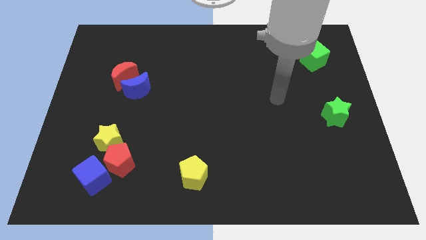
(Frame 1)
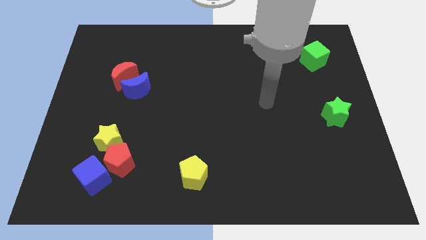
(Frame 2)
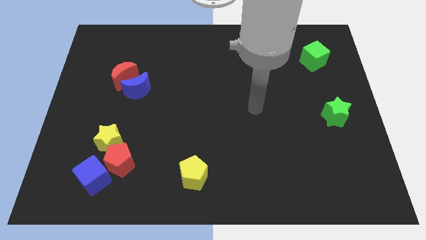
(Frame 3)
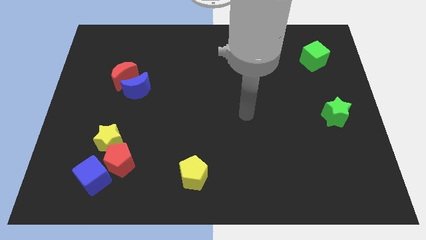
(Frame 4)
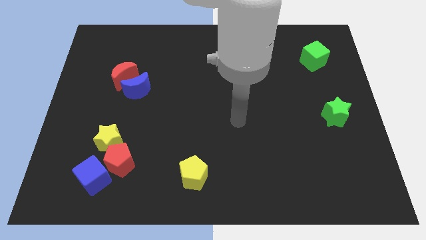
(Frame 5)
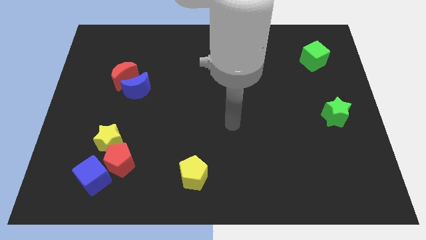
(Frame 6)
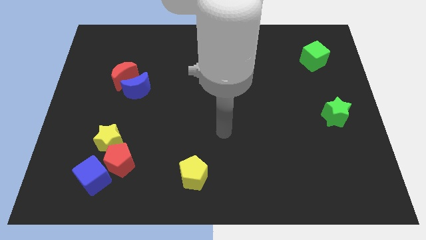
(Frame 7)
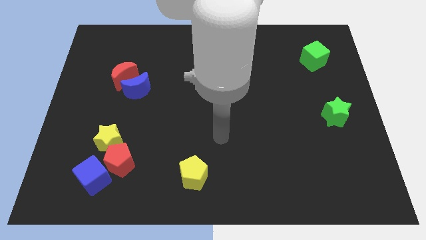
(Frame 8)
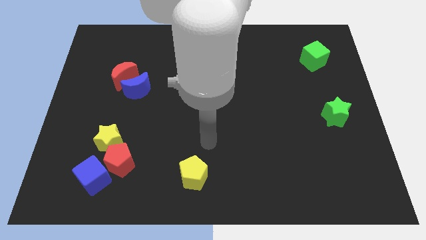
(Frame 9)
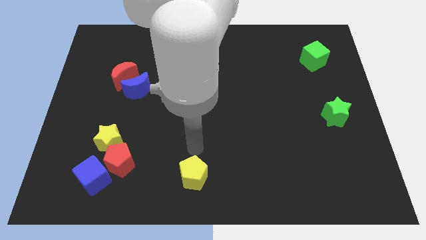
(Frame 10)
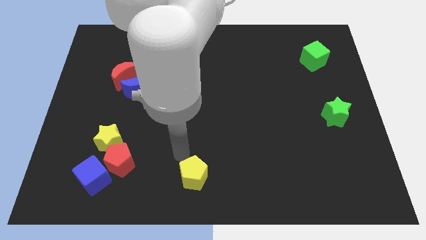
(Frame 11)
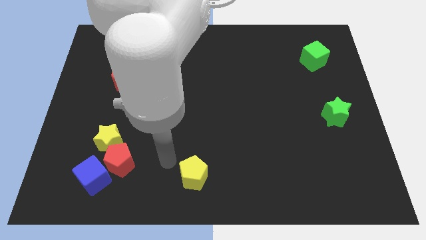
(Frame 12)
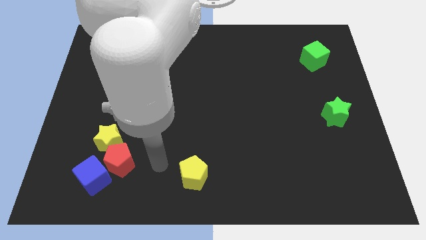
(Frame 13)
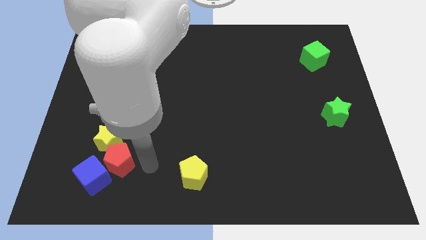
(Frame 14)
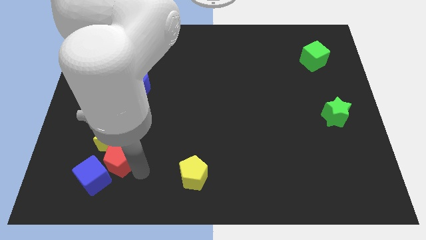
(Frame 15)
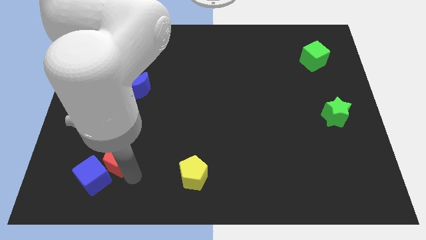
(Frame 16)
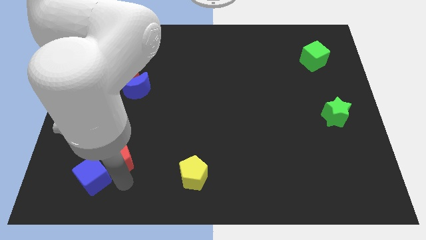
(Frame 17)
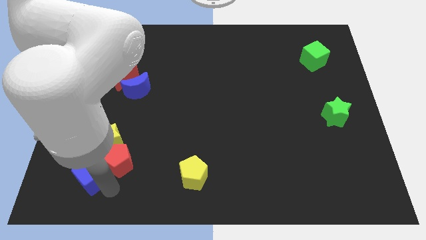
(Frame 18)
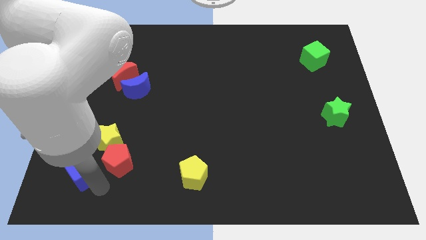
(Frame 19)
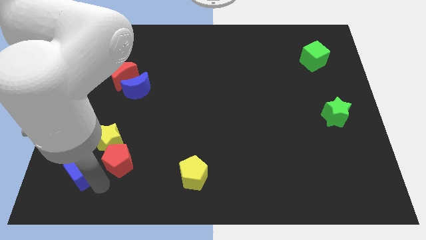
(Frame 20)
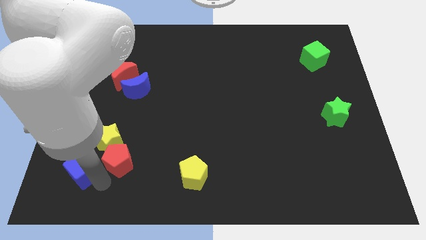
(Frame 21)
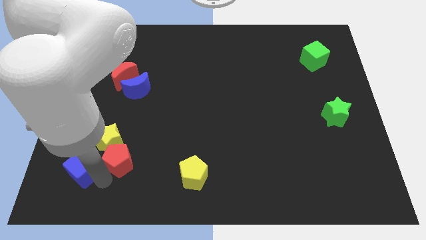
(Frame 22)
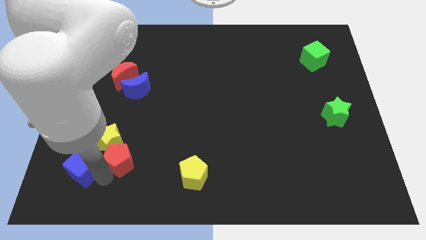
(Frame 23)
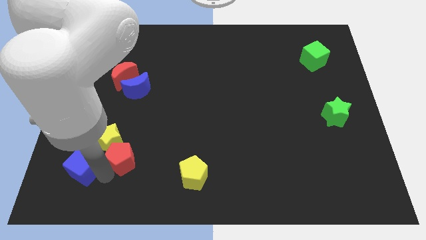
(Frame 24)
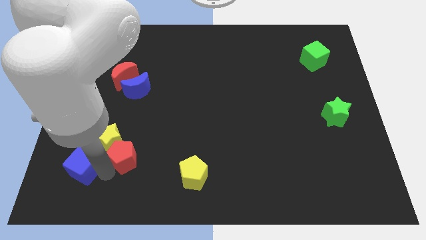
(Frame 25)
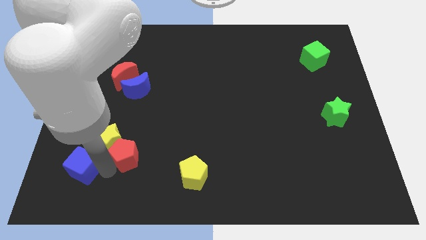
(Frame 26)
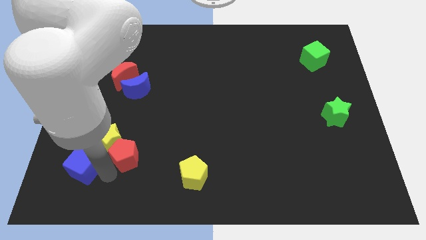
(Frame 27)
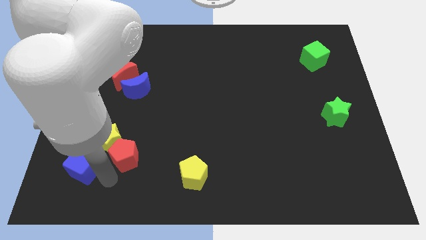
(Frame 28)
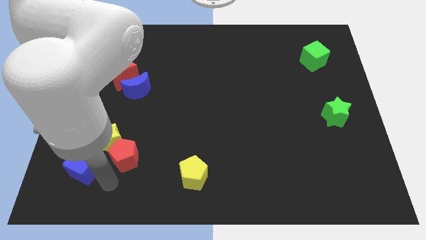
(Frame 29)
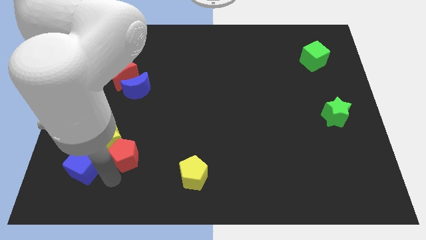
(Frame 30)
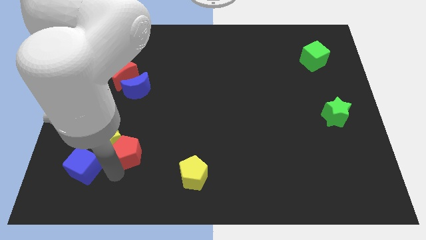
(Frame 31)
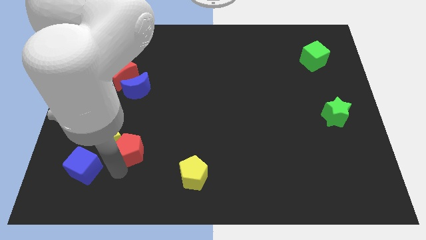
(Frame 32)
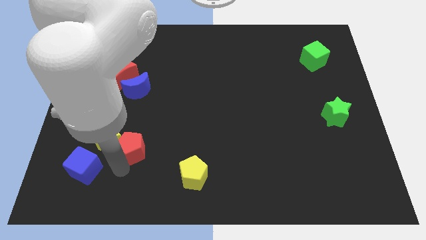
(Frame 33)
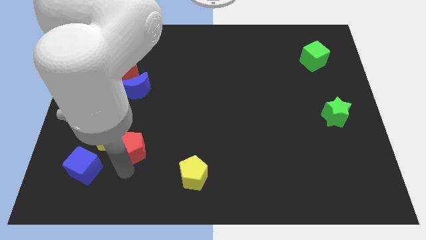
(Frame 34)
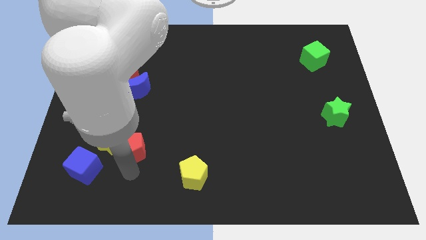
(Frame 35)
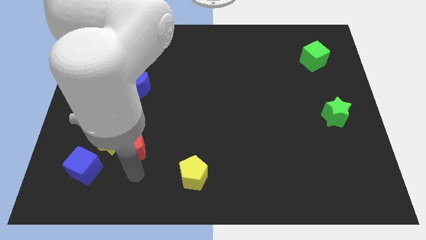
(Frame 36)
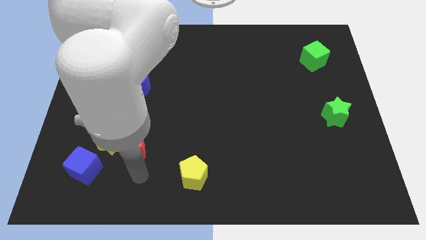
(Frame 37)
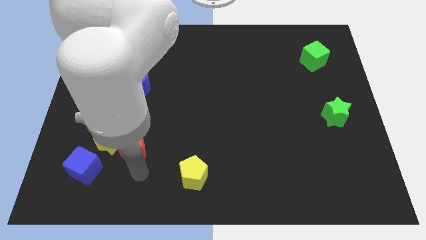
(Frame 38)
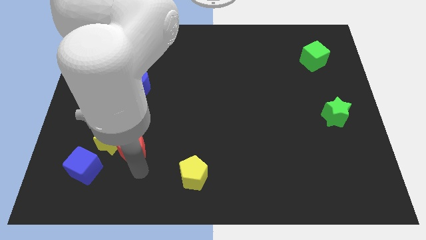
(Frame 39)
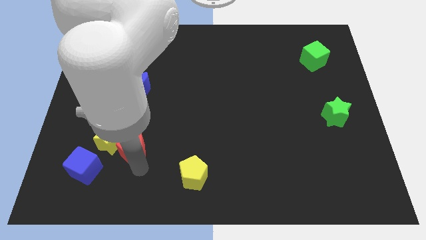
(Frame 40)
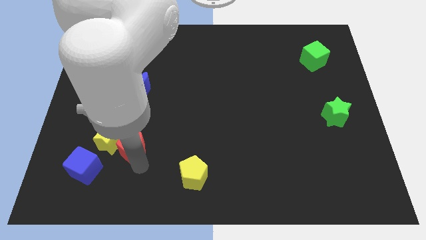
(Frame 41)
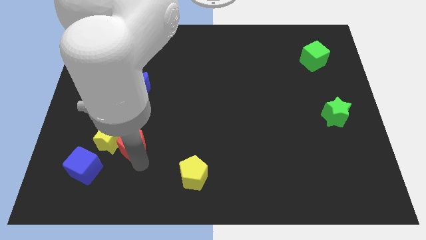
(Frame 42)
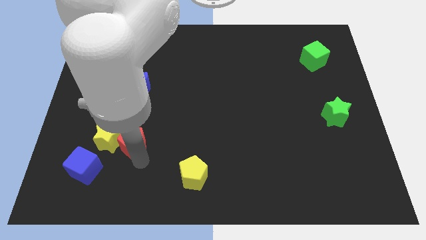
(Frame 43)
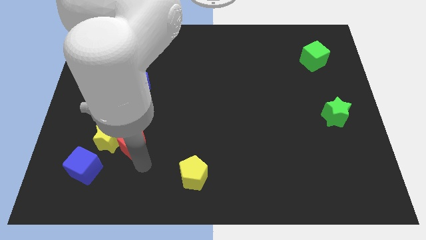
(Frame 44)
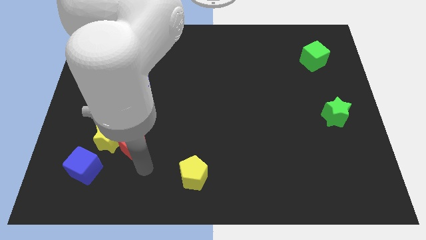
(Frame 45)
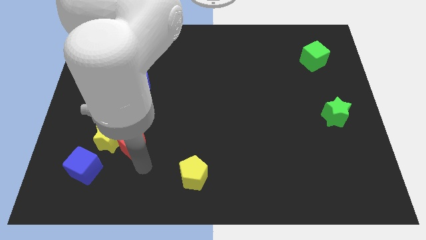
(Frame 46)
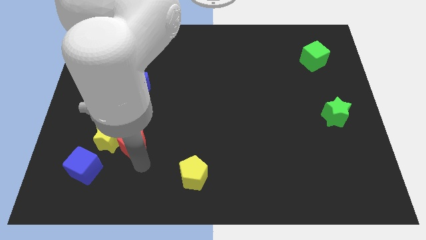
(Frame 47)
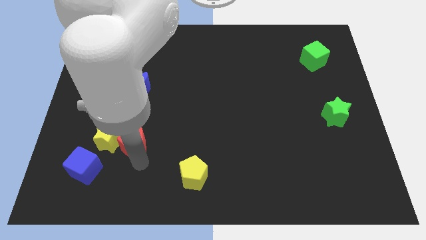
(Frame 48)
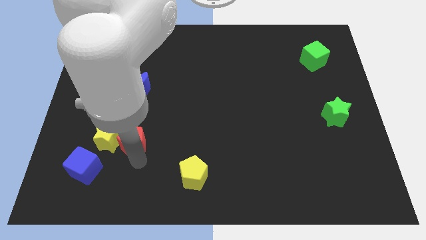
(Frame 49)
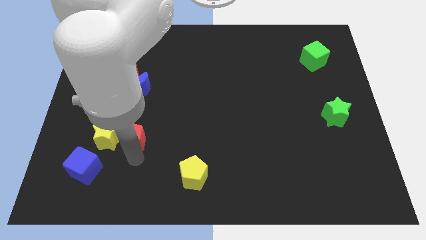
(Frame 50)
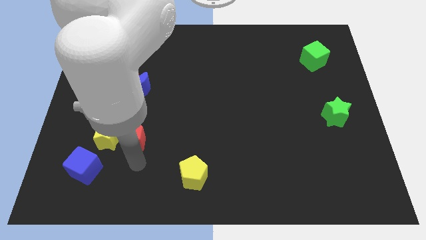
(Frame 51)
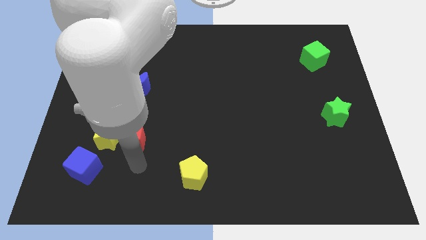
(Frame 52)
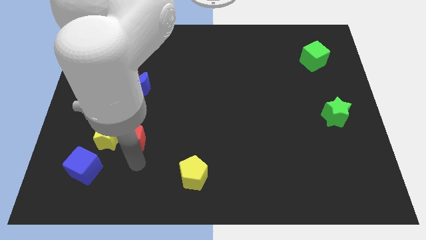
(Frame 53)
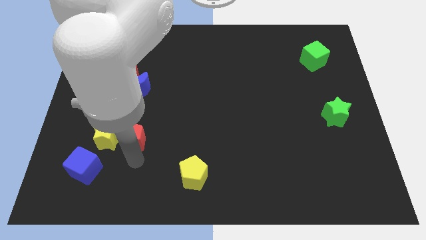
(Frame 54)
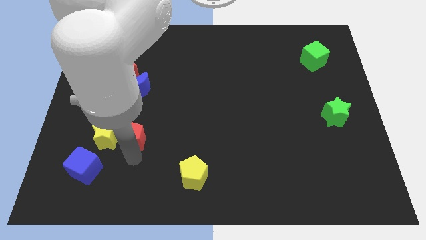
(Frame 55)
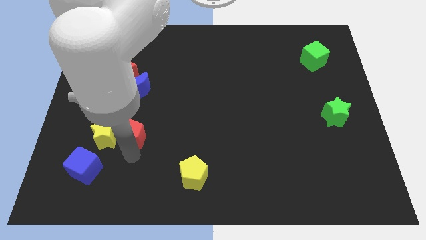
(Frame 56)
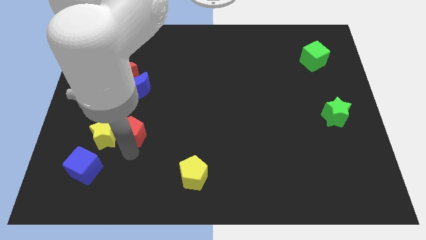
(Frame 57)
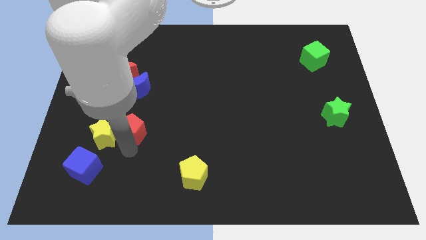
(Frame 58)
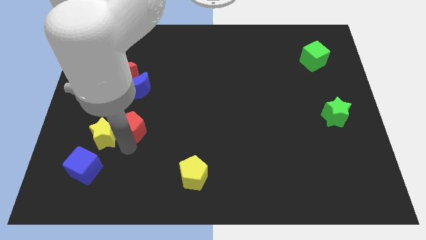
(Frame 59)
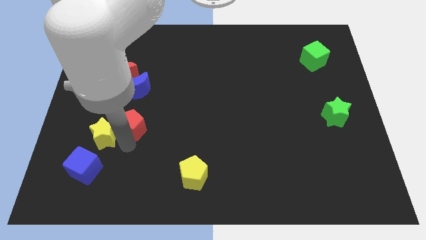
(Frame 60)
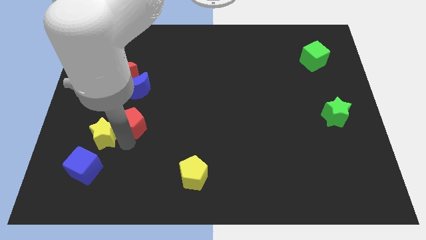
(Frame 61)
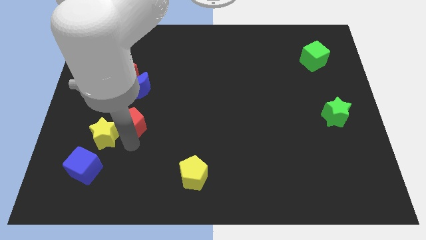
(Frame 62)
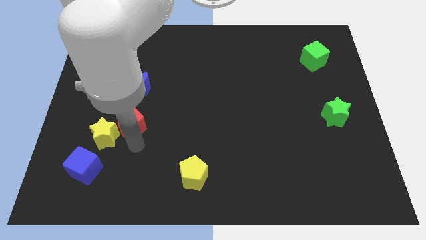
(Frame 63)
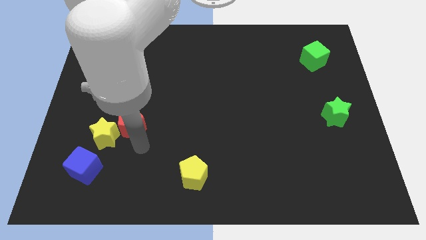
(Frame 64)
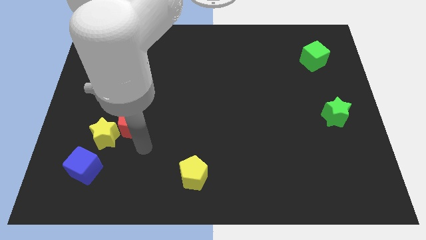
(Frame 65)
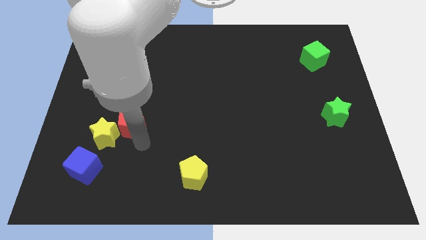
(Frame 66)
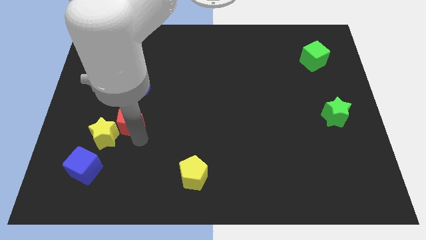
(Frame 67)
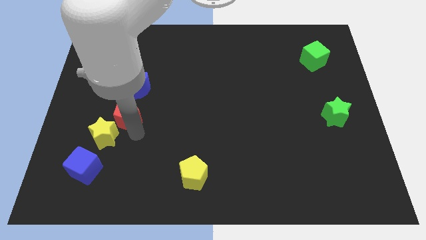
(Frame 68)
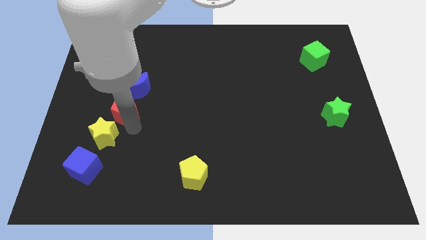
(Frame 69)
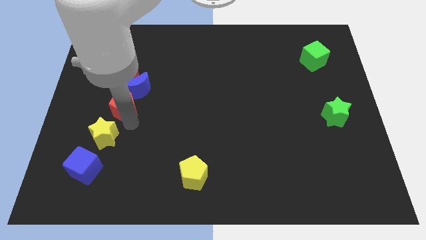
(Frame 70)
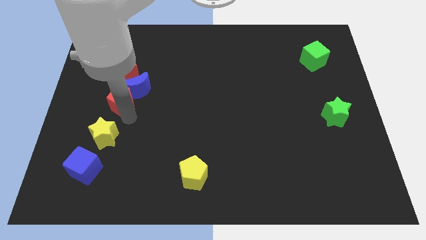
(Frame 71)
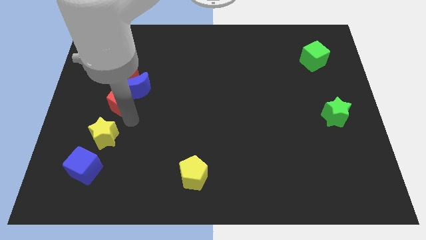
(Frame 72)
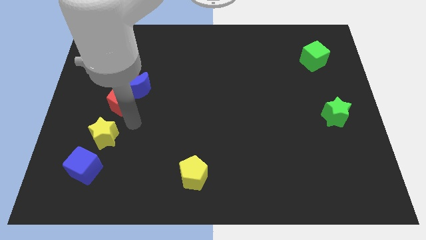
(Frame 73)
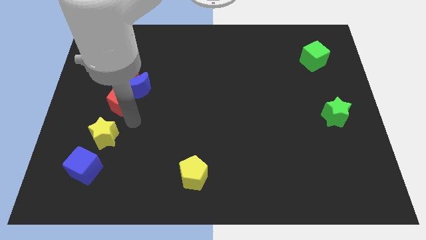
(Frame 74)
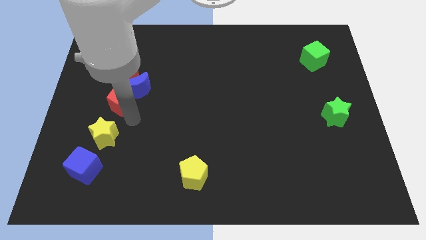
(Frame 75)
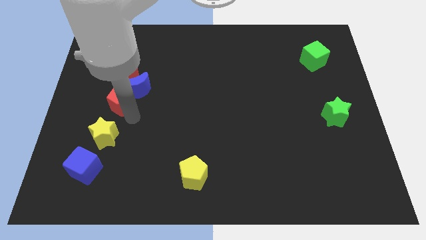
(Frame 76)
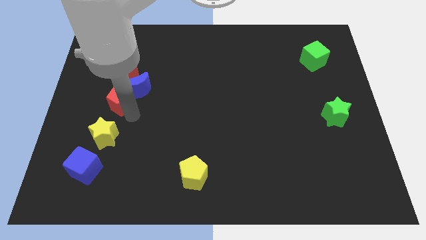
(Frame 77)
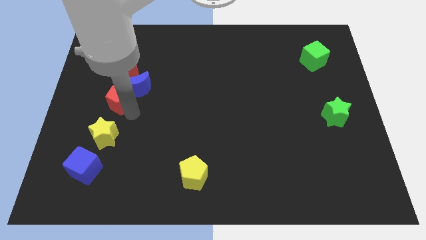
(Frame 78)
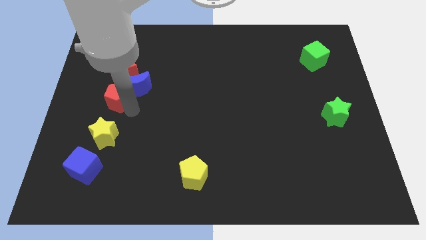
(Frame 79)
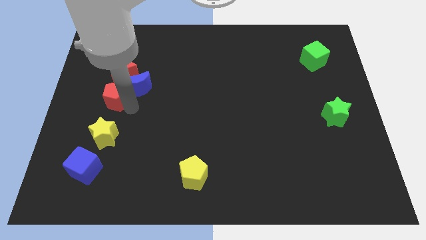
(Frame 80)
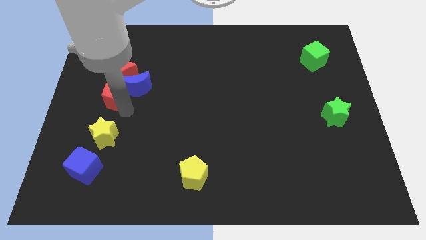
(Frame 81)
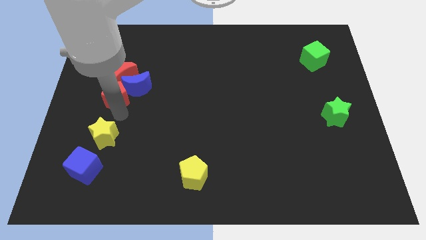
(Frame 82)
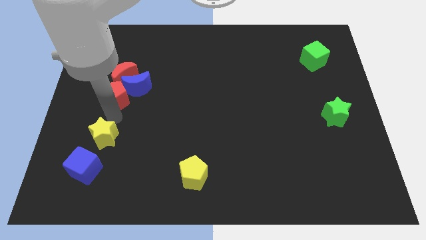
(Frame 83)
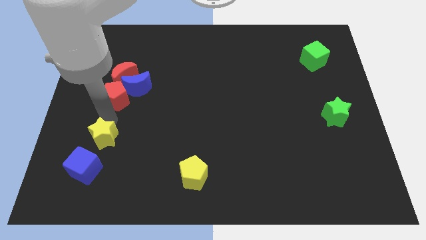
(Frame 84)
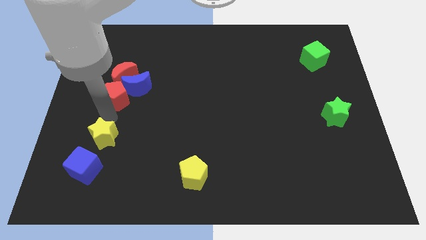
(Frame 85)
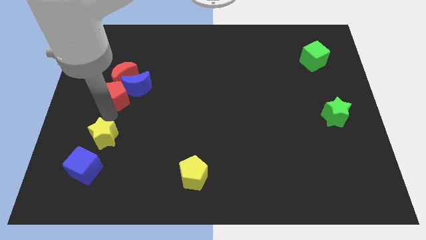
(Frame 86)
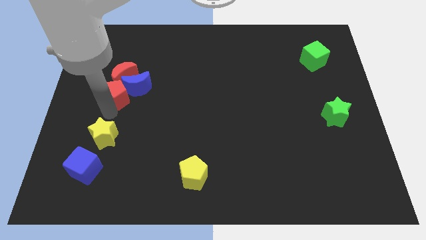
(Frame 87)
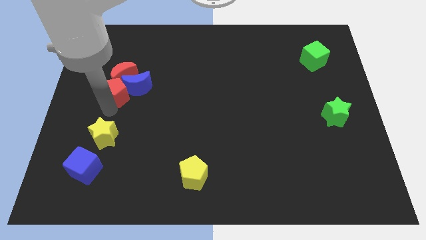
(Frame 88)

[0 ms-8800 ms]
push the red pentagon to the red moon
